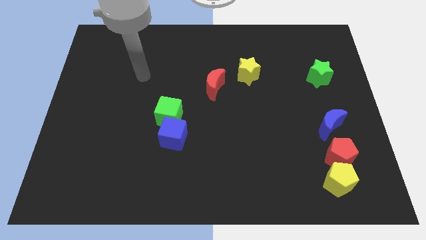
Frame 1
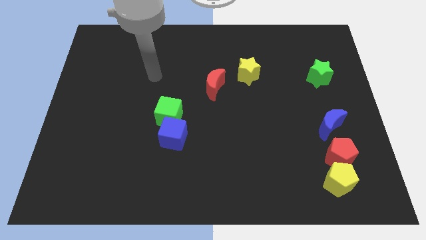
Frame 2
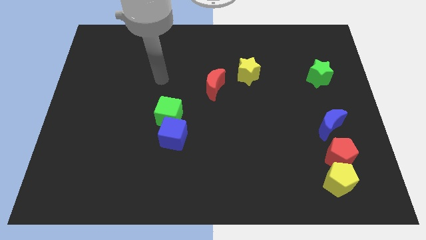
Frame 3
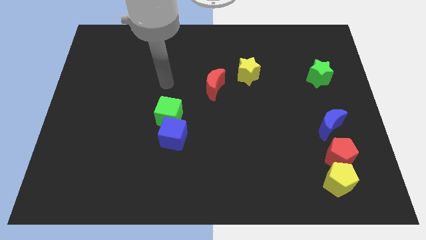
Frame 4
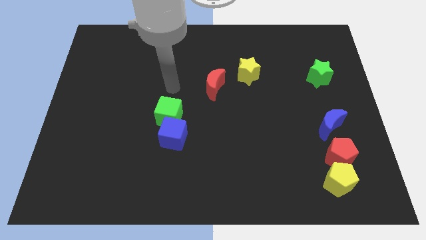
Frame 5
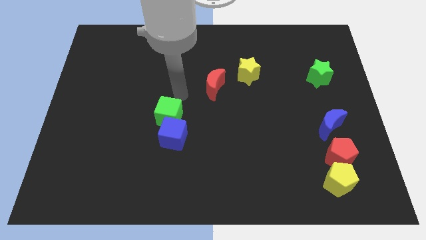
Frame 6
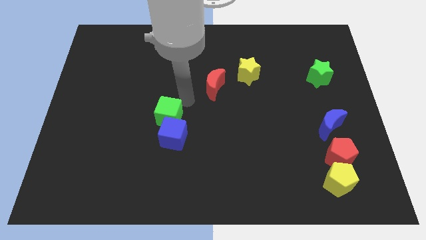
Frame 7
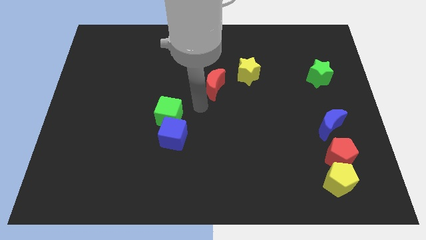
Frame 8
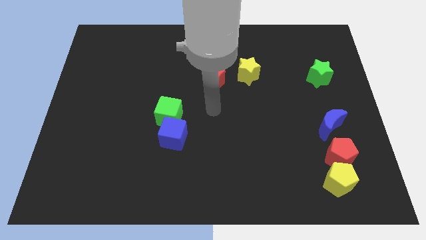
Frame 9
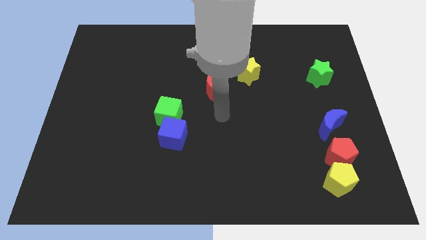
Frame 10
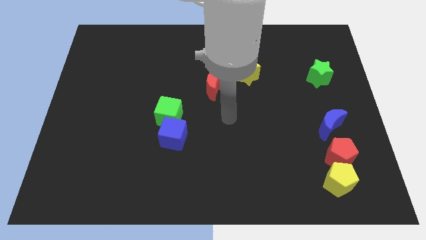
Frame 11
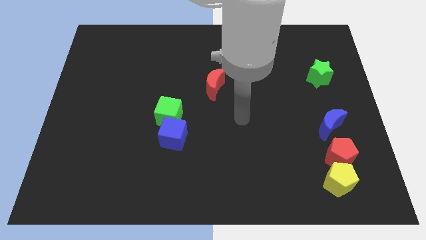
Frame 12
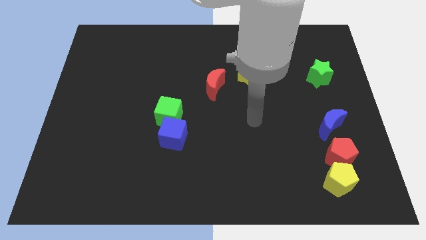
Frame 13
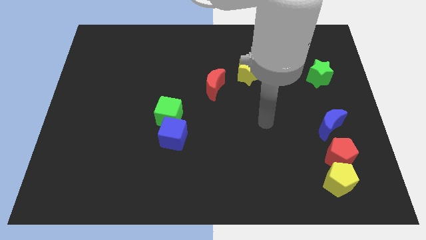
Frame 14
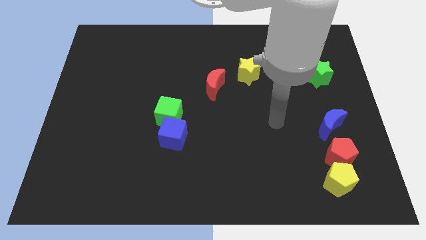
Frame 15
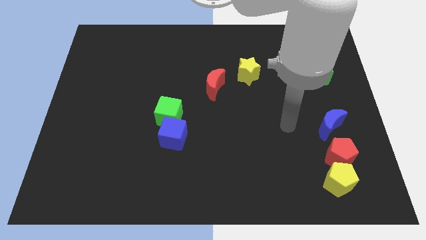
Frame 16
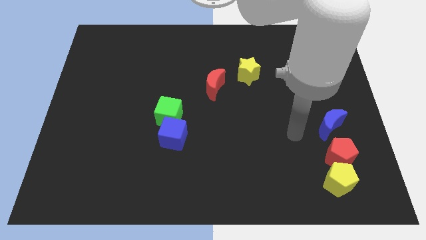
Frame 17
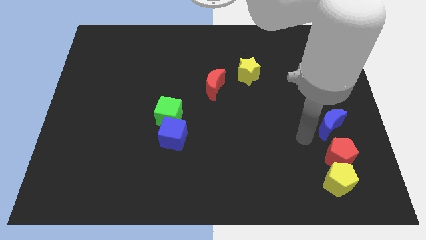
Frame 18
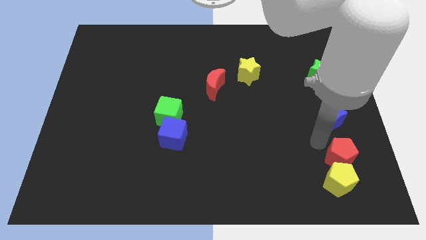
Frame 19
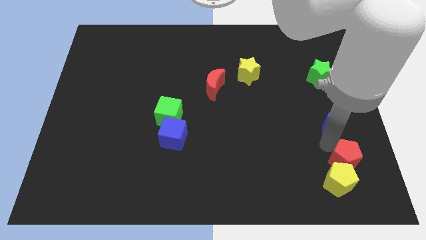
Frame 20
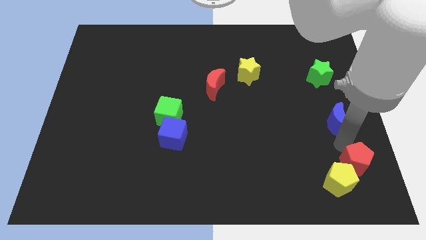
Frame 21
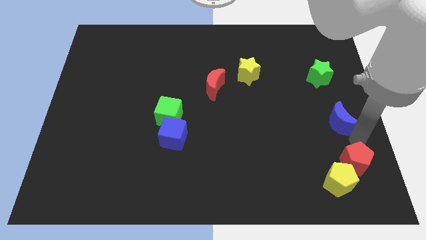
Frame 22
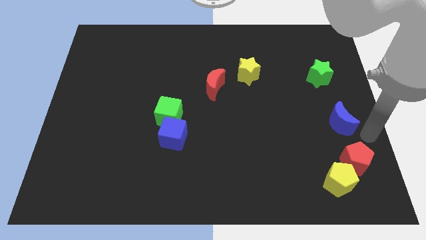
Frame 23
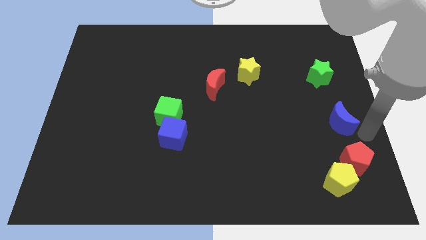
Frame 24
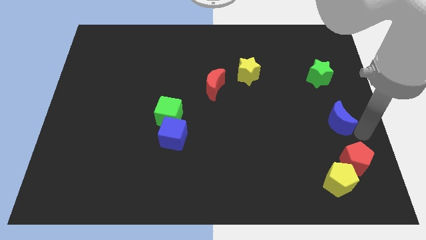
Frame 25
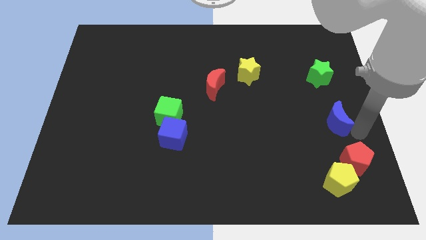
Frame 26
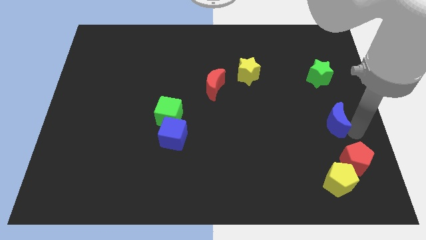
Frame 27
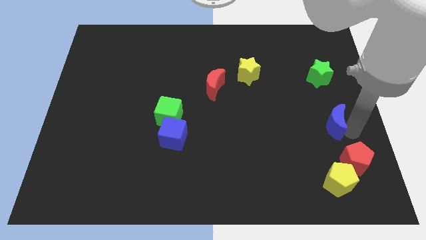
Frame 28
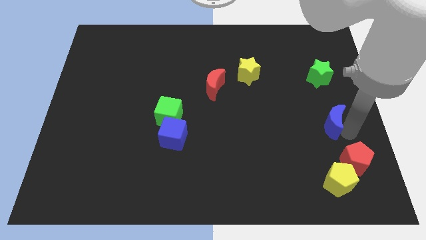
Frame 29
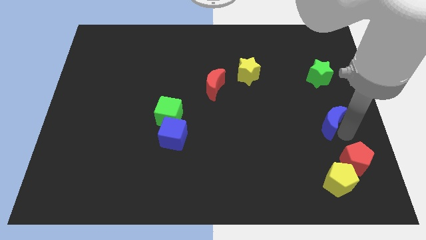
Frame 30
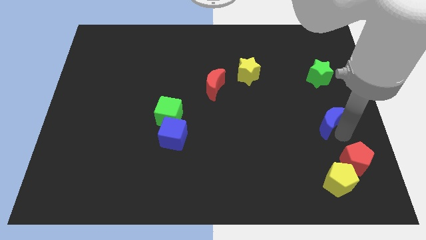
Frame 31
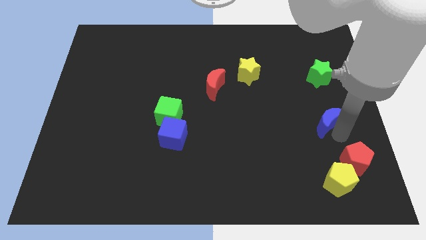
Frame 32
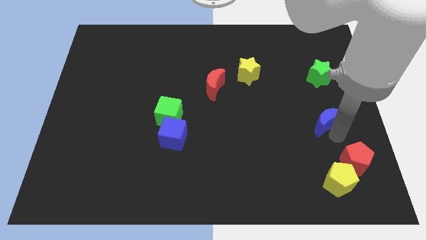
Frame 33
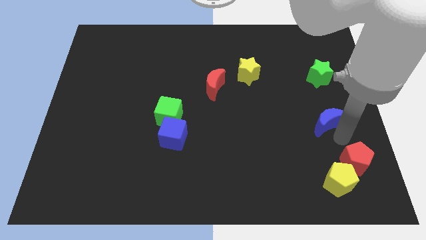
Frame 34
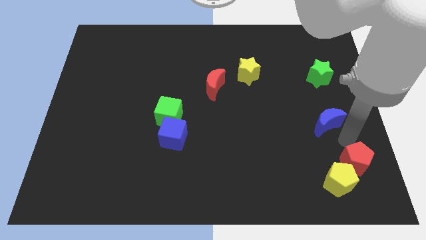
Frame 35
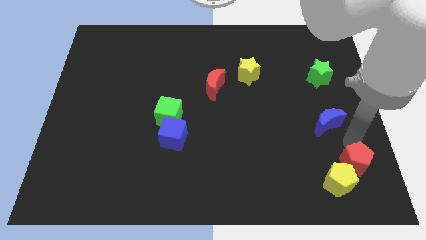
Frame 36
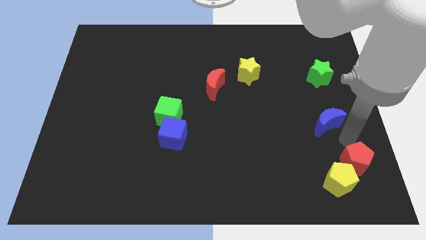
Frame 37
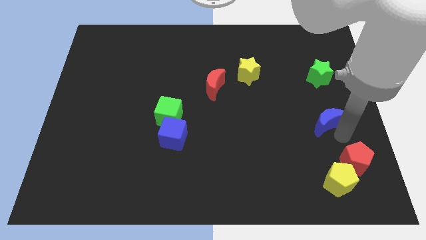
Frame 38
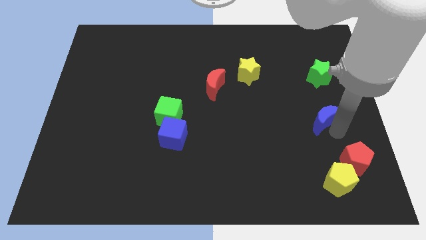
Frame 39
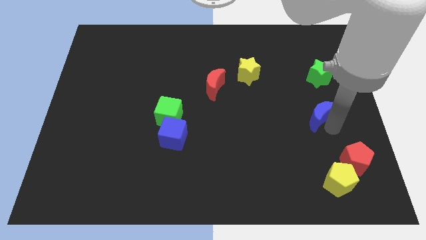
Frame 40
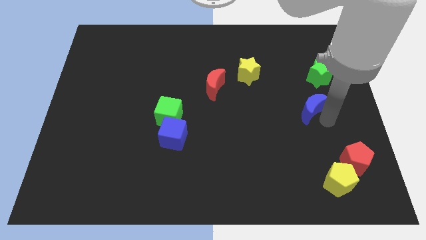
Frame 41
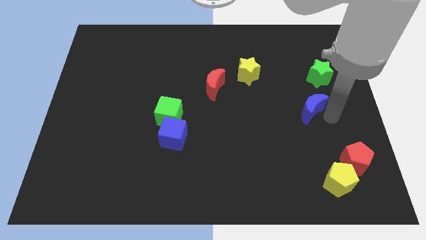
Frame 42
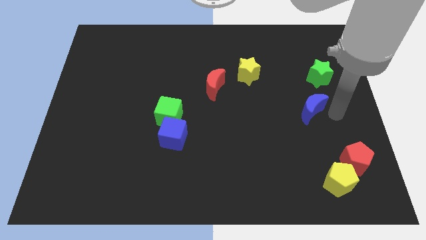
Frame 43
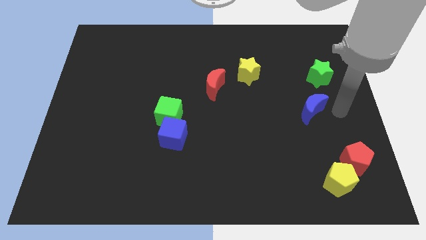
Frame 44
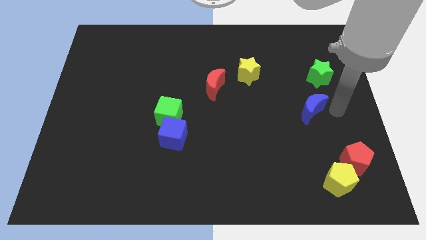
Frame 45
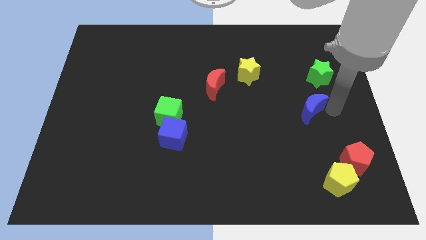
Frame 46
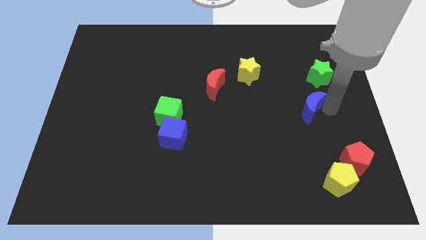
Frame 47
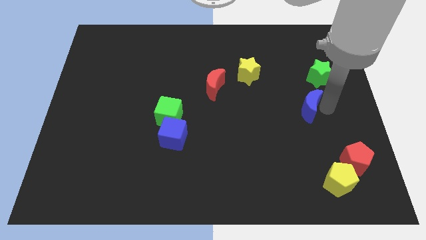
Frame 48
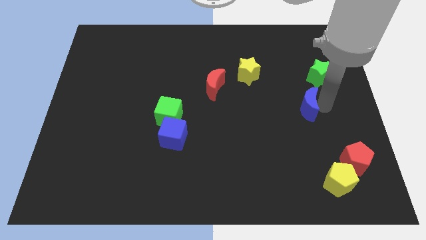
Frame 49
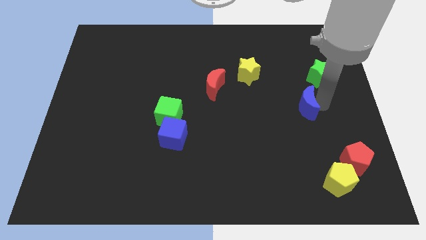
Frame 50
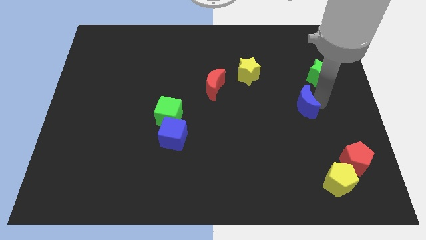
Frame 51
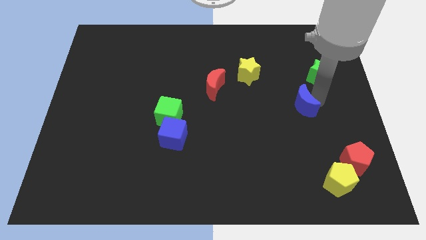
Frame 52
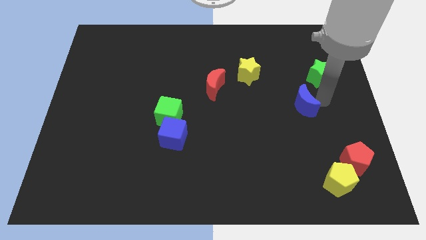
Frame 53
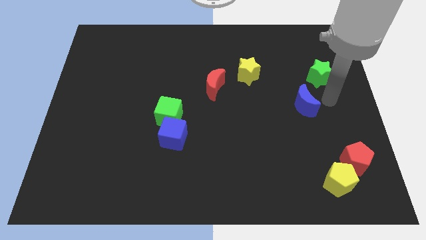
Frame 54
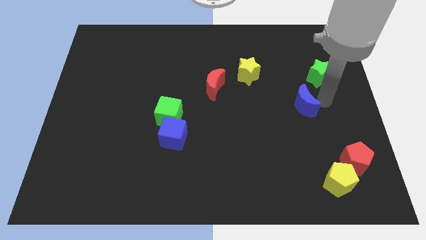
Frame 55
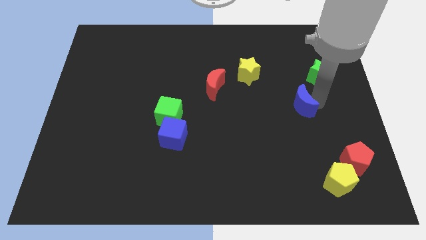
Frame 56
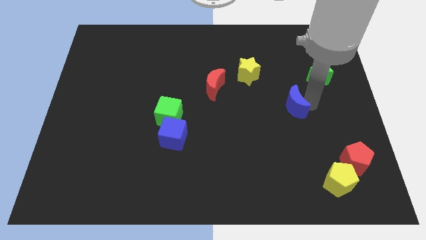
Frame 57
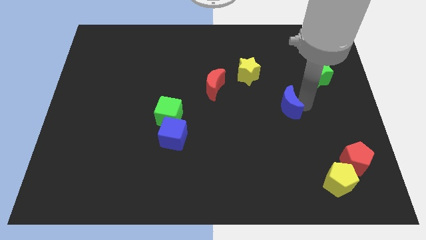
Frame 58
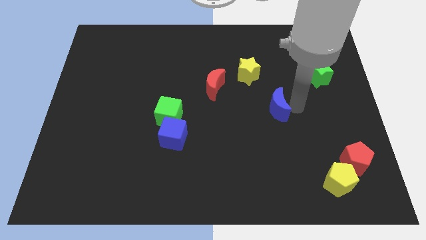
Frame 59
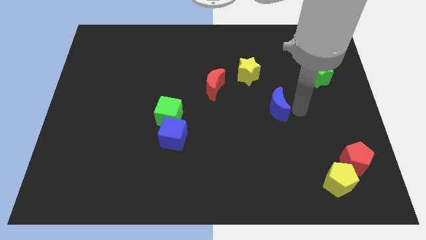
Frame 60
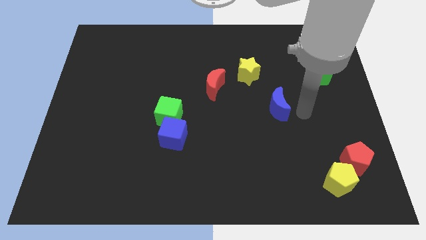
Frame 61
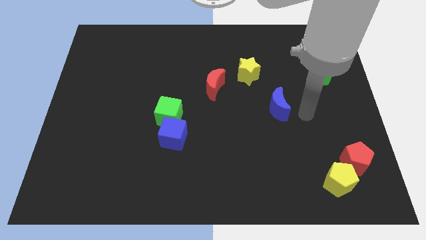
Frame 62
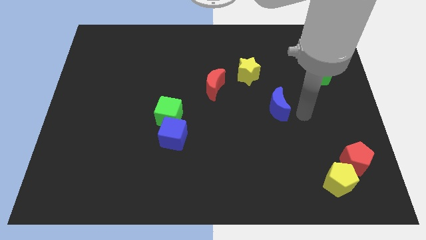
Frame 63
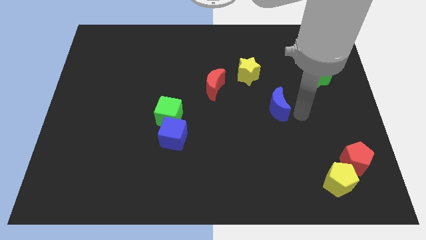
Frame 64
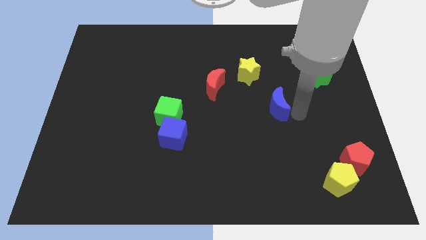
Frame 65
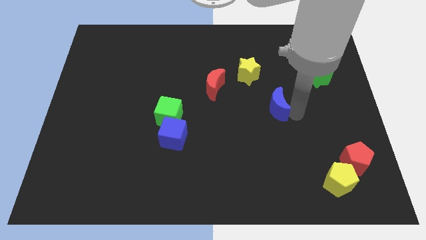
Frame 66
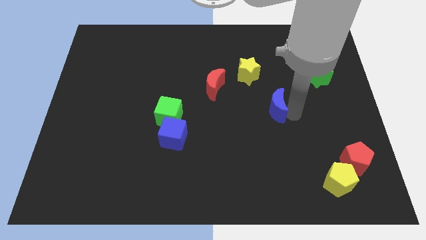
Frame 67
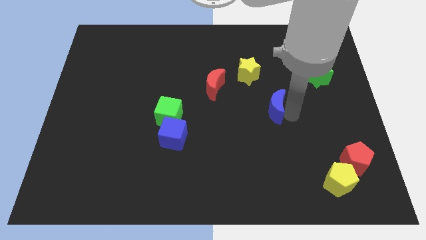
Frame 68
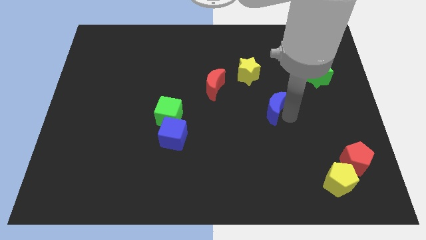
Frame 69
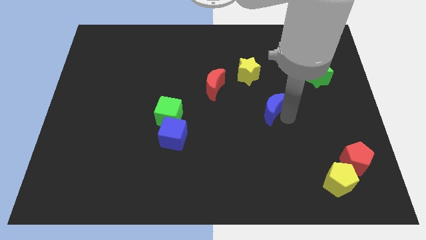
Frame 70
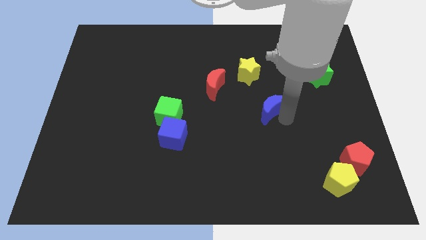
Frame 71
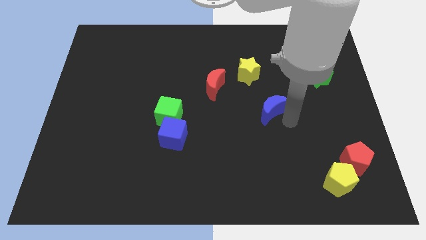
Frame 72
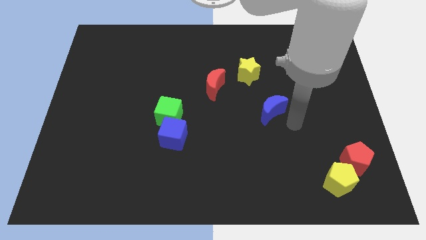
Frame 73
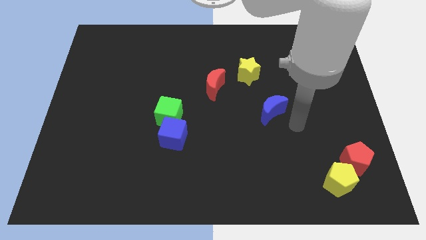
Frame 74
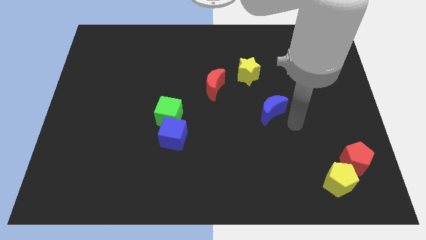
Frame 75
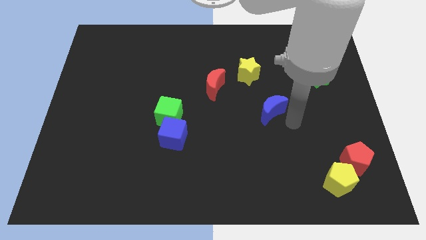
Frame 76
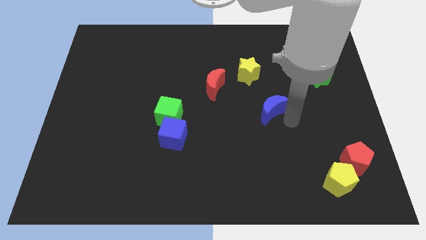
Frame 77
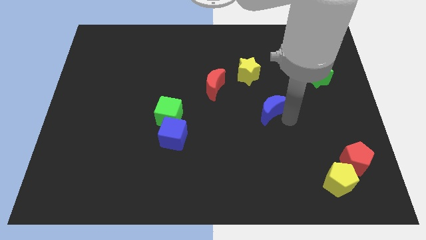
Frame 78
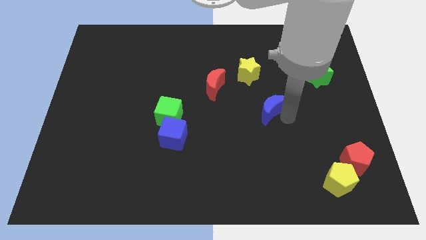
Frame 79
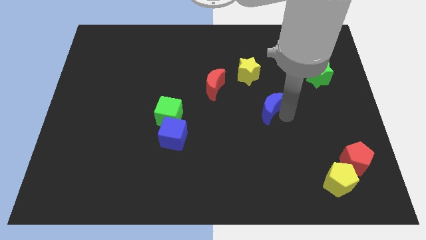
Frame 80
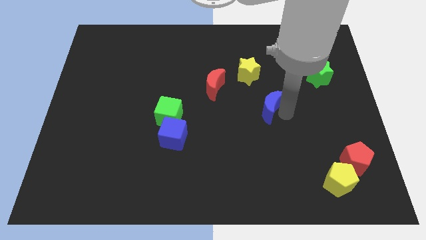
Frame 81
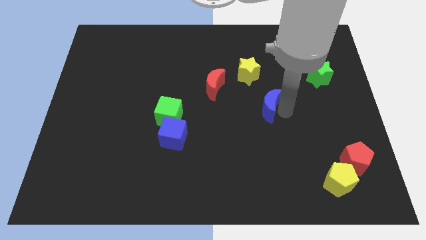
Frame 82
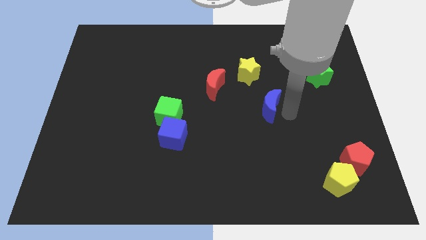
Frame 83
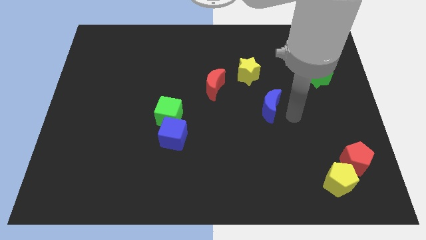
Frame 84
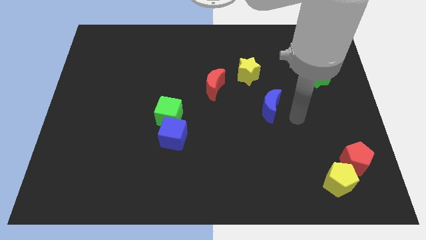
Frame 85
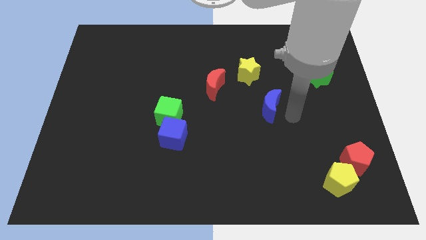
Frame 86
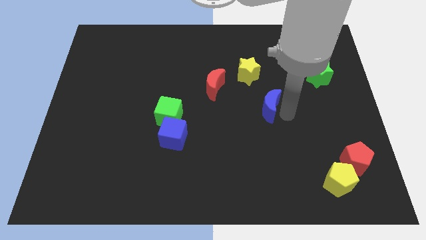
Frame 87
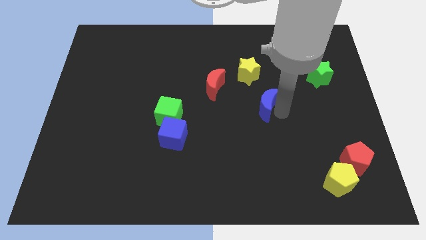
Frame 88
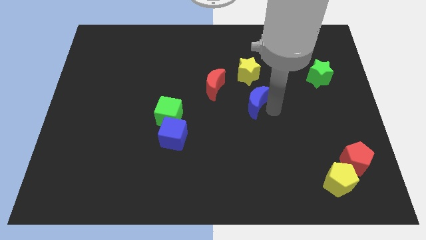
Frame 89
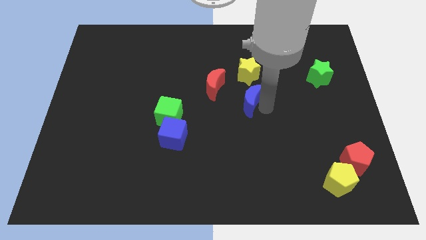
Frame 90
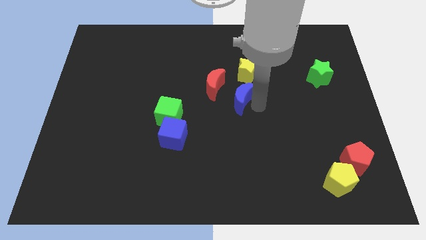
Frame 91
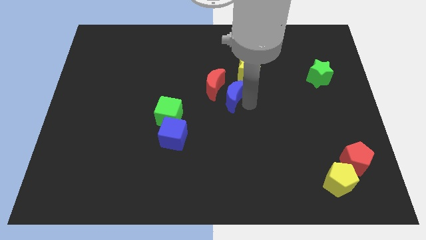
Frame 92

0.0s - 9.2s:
slide the blue moon close to the red moon
